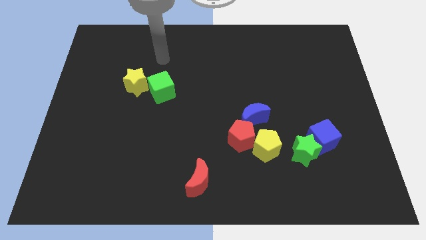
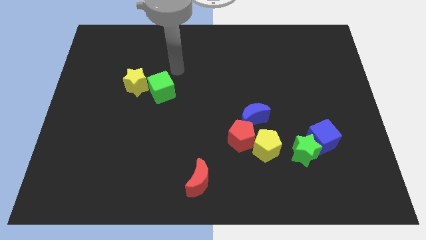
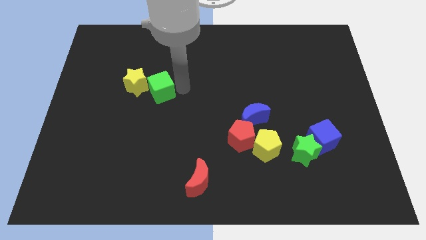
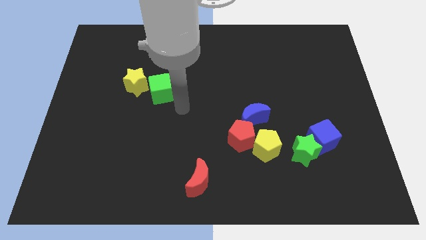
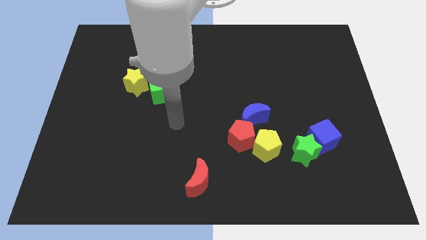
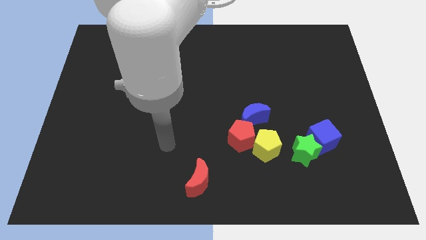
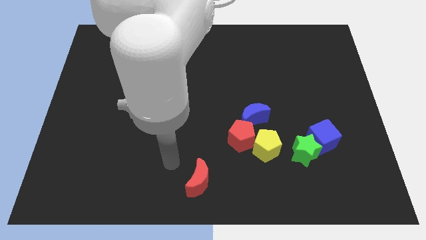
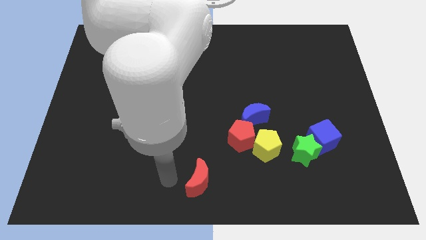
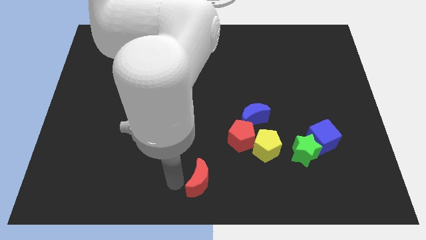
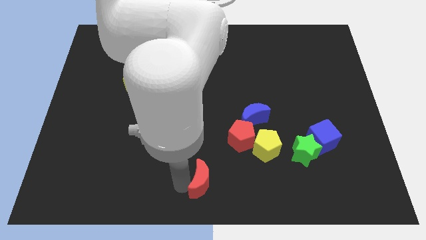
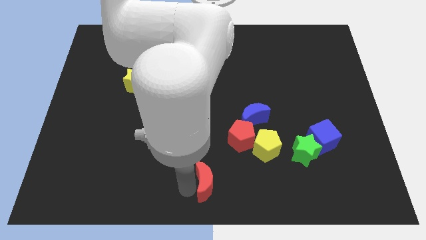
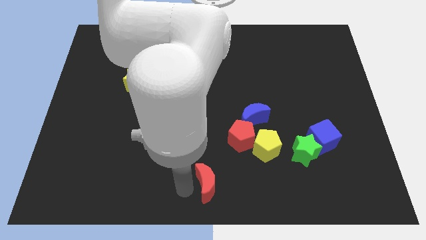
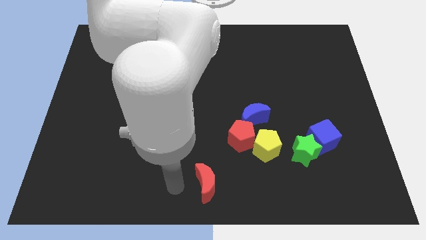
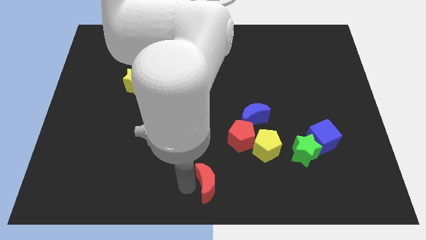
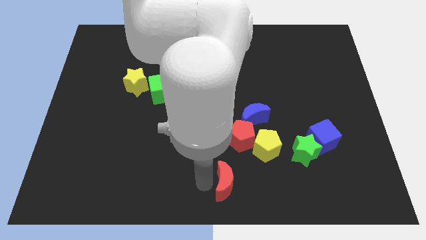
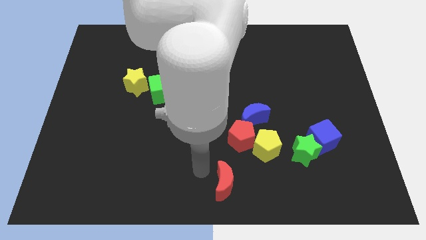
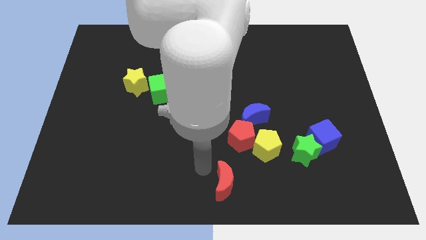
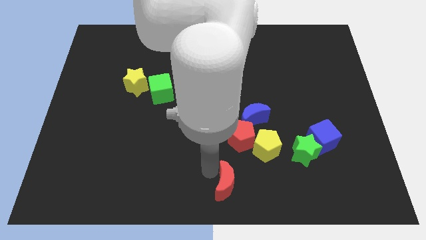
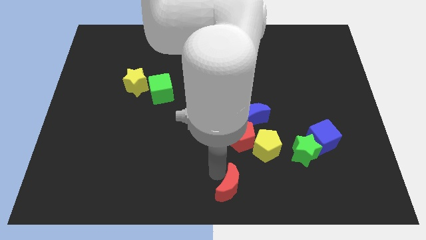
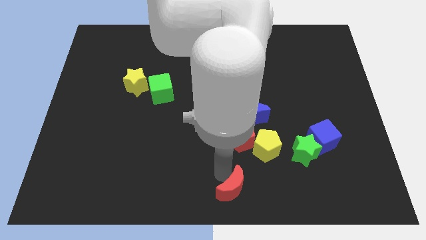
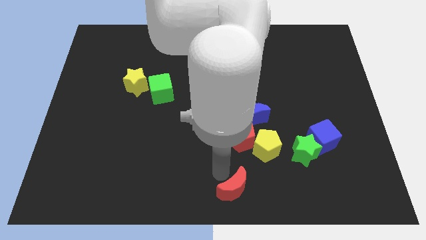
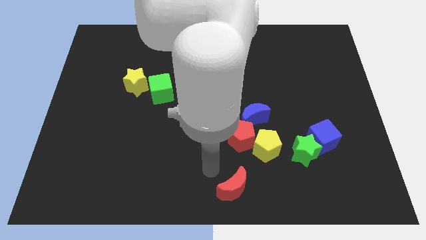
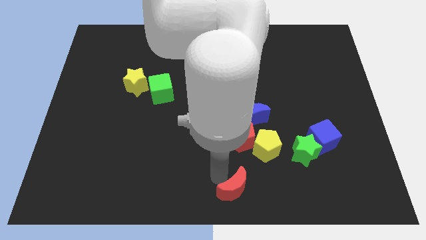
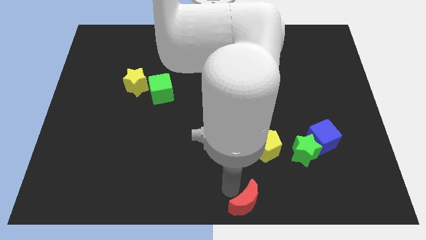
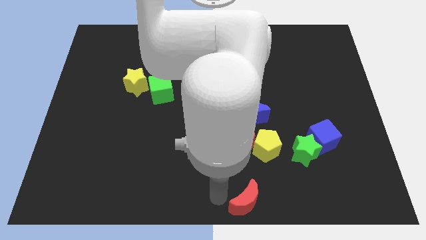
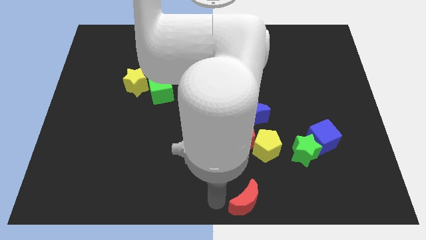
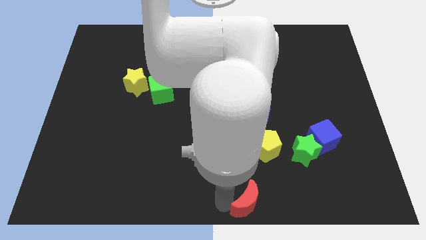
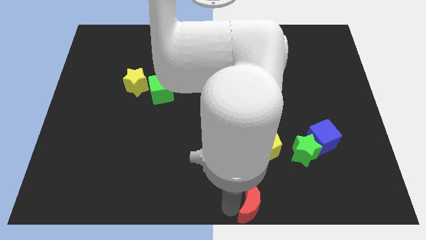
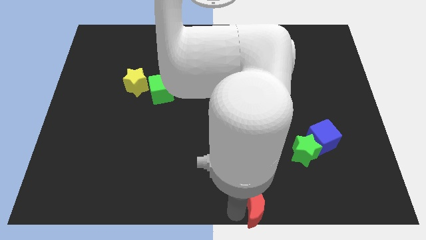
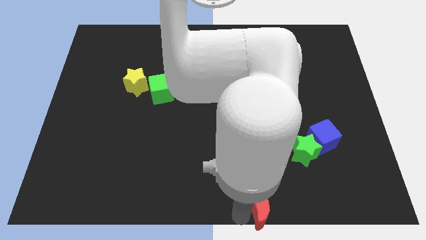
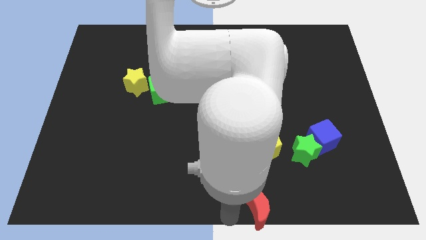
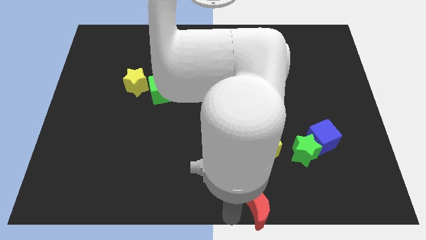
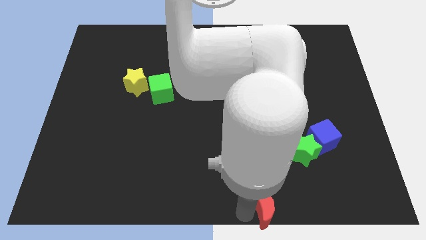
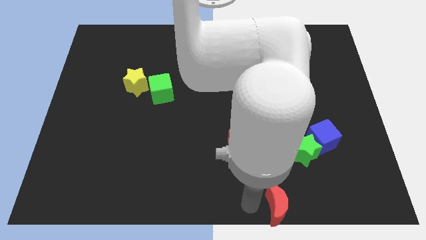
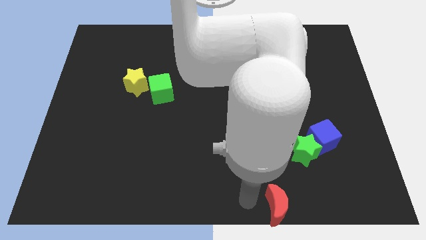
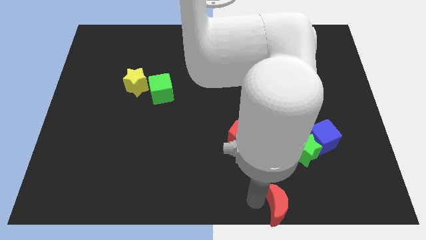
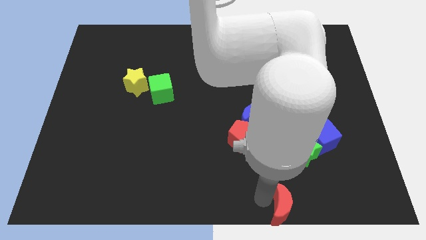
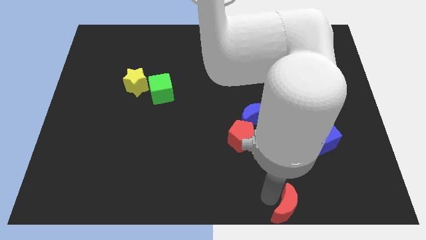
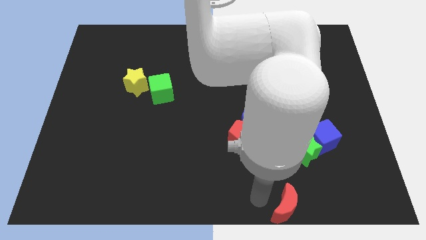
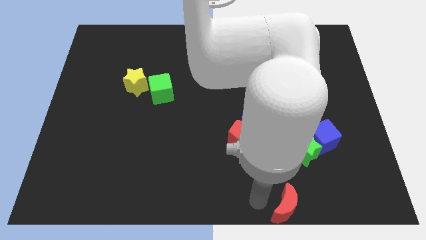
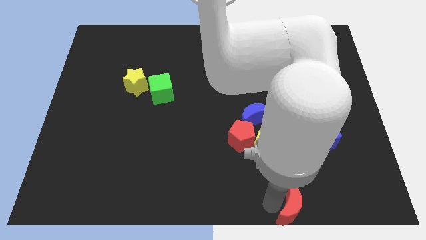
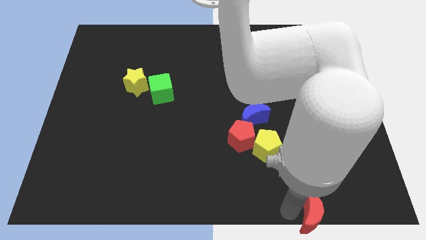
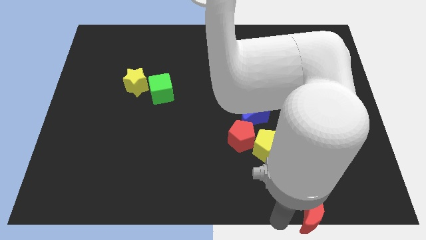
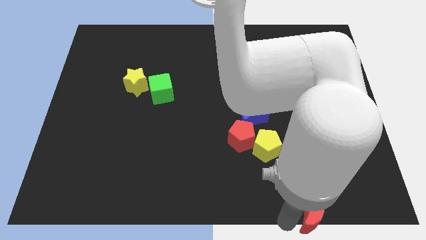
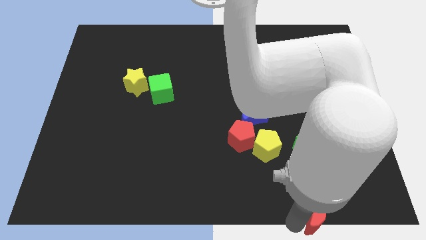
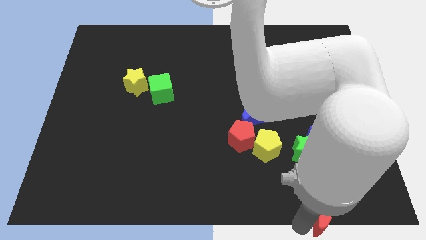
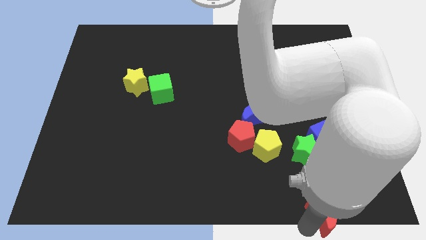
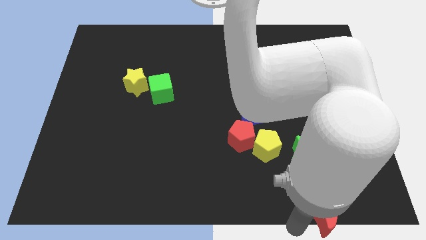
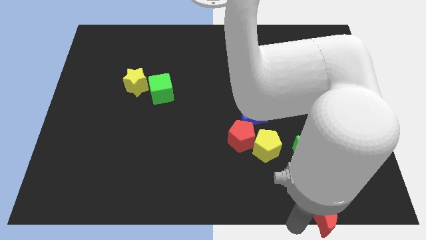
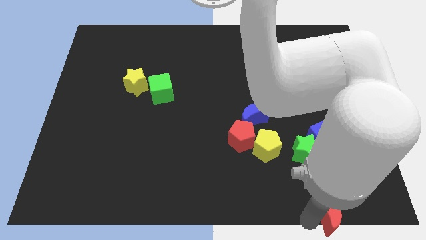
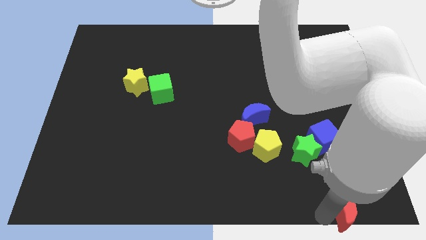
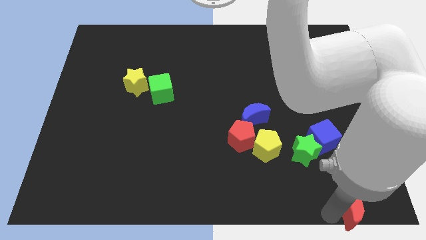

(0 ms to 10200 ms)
slide the red moon to the bottom right corner

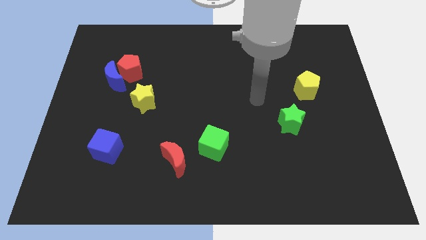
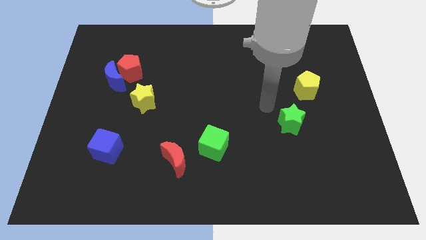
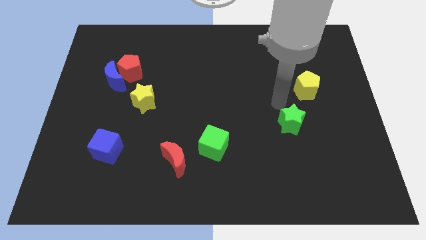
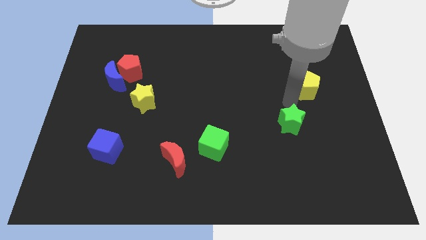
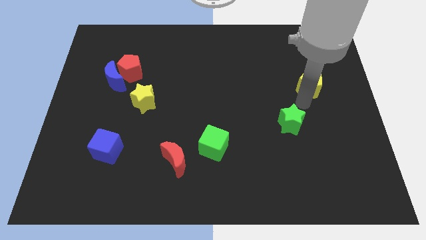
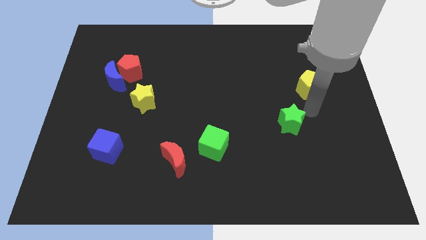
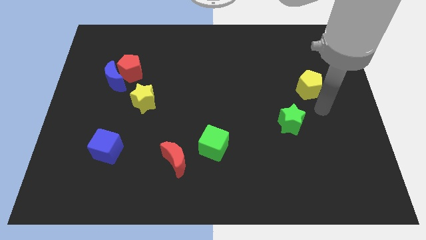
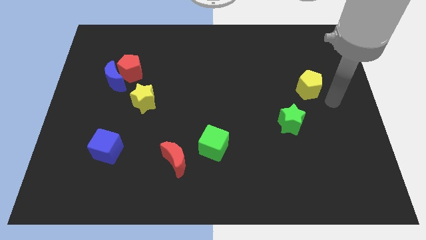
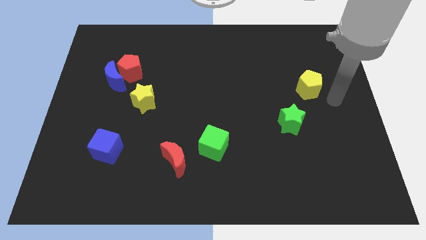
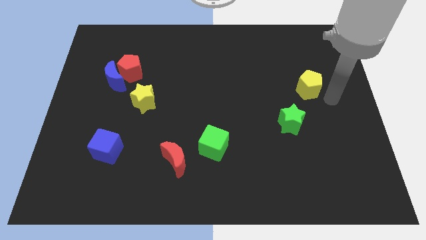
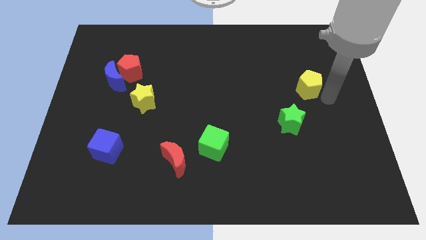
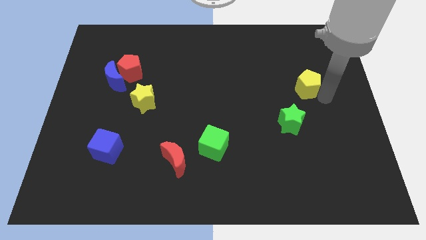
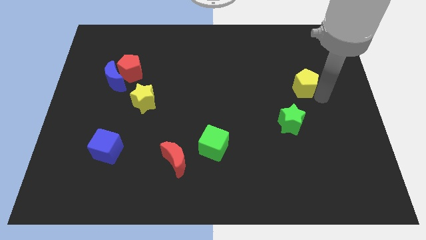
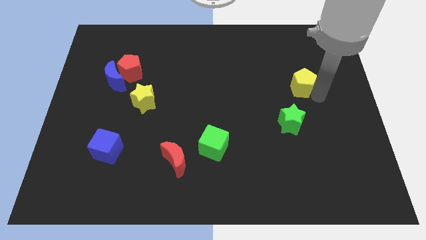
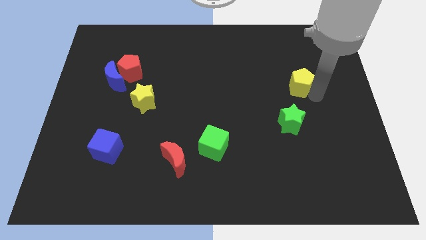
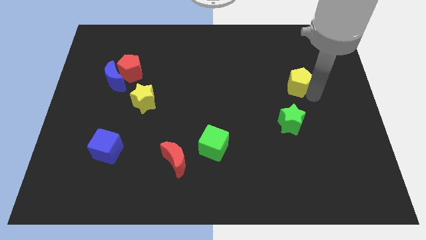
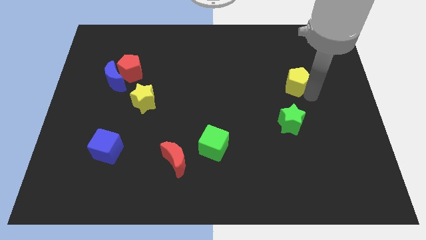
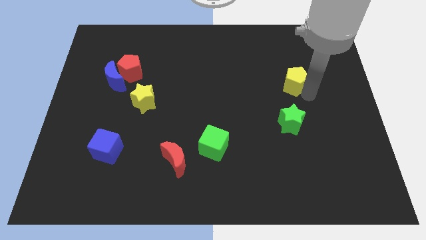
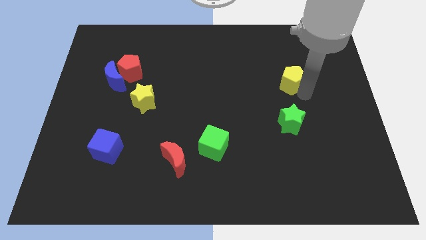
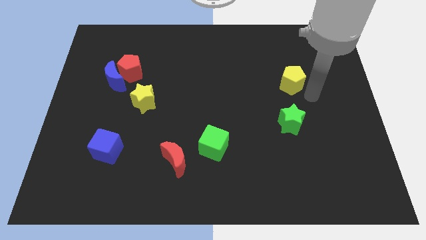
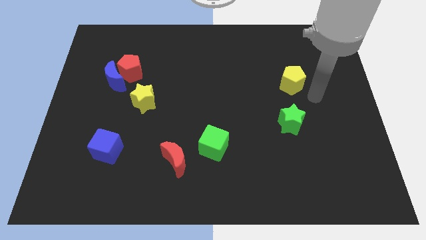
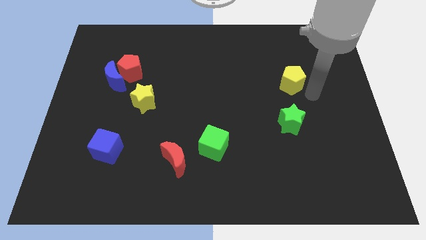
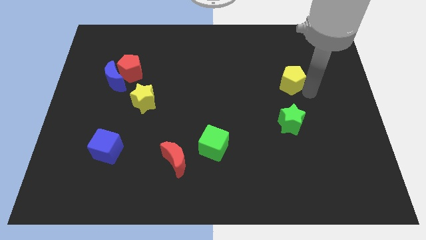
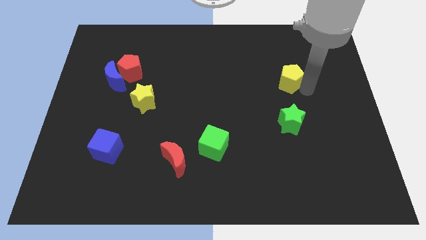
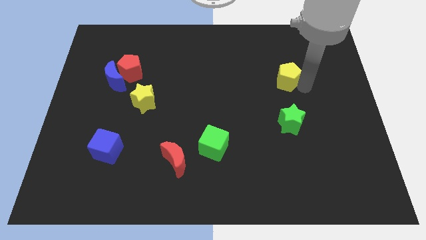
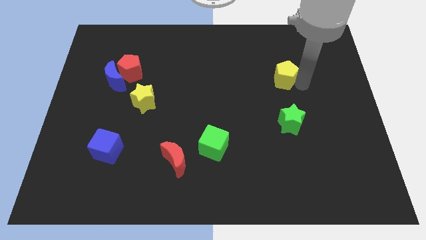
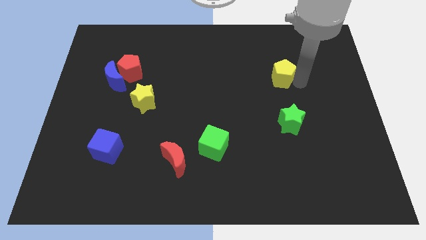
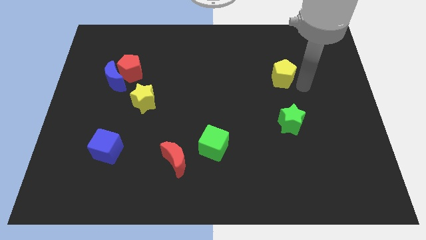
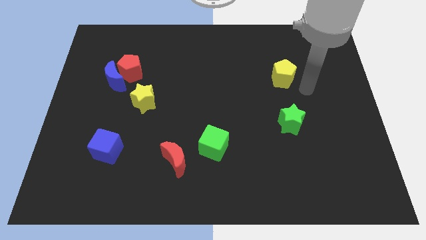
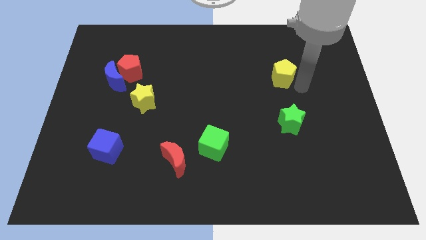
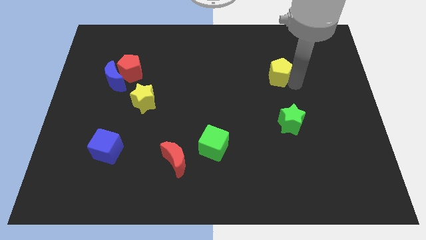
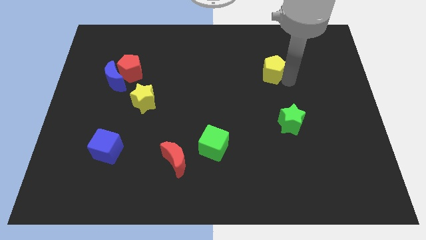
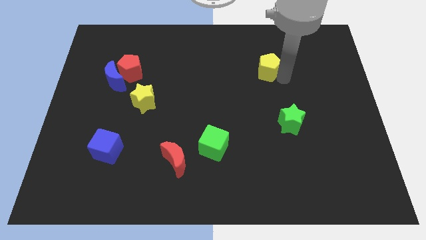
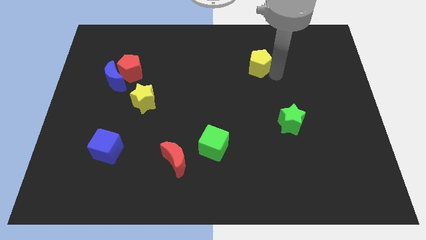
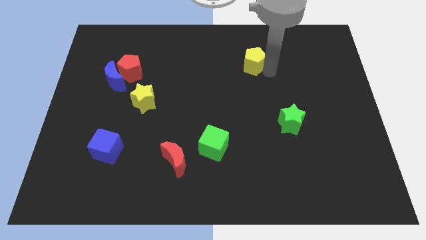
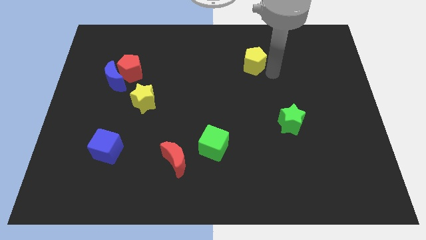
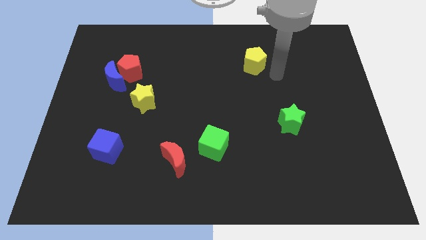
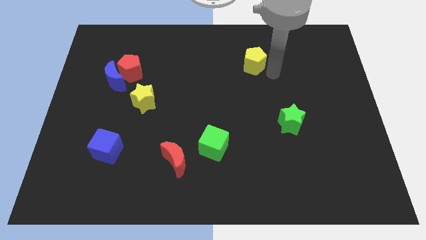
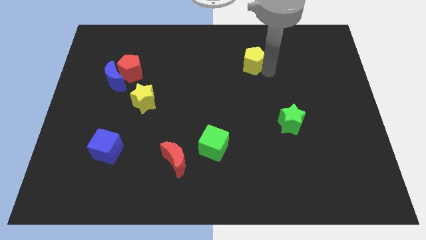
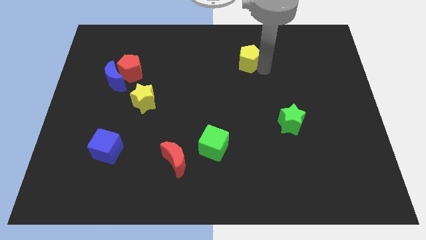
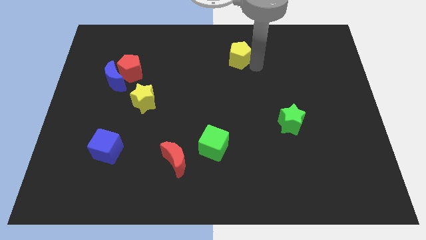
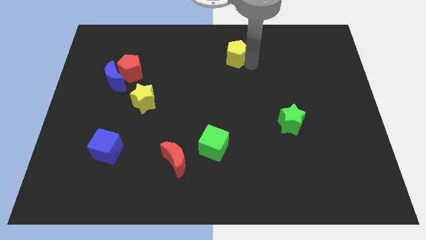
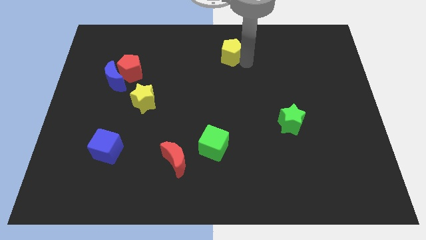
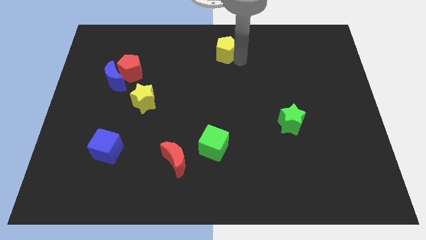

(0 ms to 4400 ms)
put the yellow pentagon to the top side
